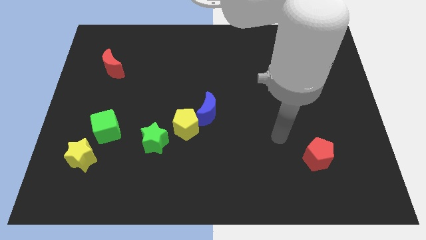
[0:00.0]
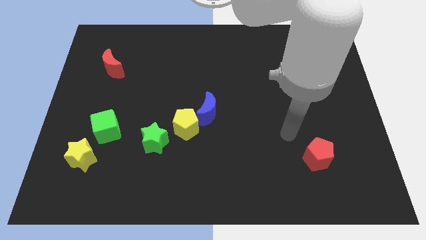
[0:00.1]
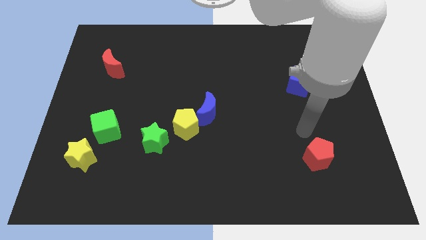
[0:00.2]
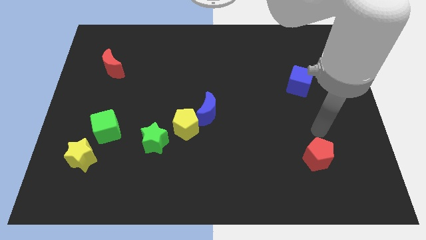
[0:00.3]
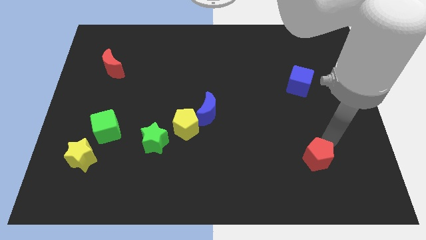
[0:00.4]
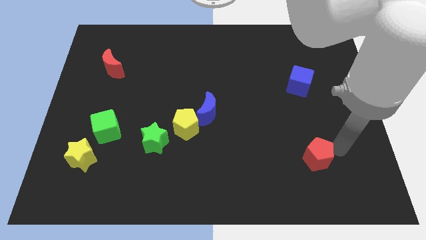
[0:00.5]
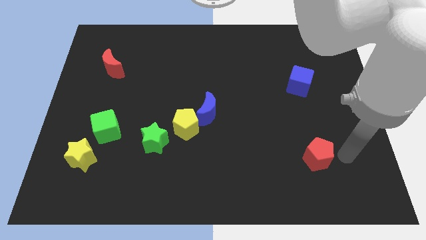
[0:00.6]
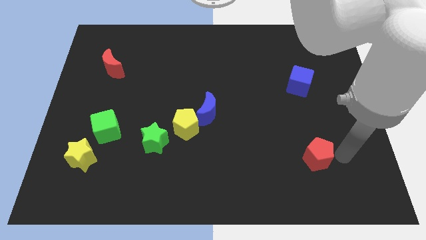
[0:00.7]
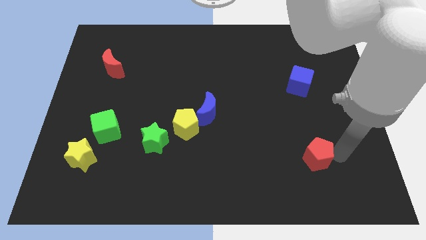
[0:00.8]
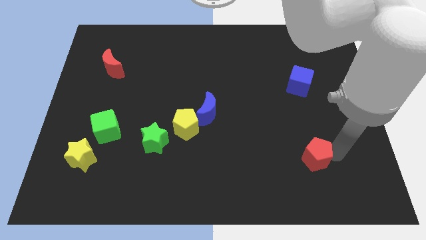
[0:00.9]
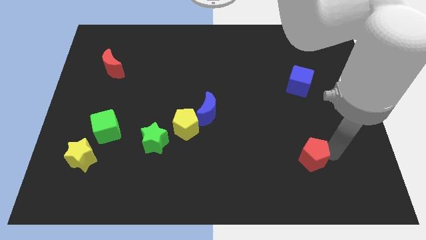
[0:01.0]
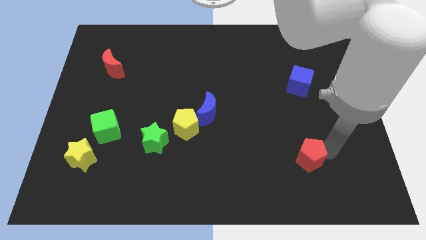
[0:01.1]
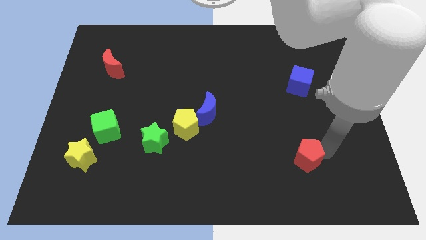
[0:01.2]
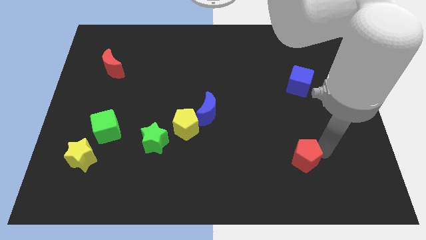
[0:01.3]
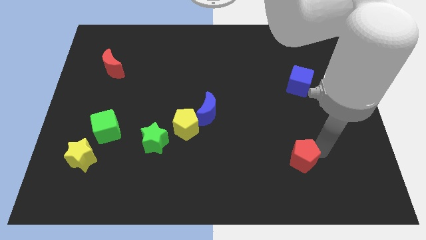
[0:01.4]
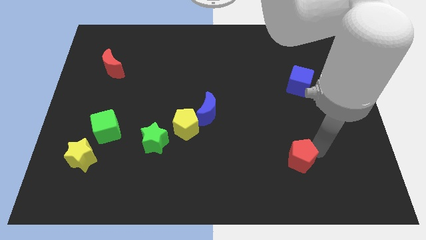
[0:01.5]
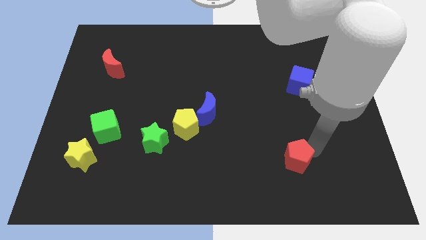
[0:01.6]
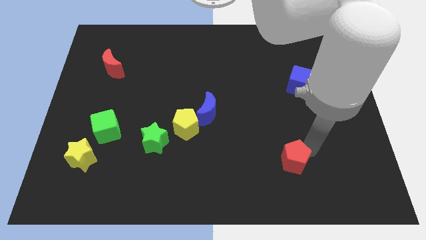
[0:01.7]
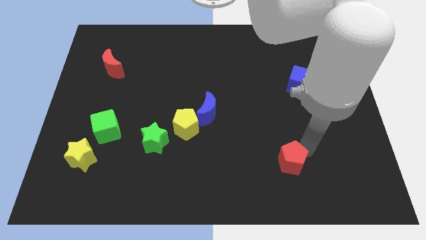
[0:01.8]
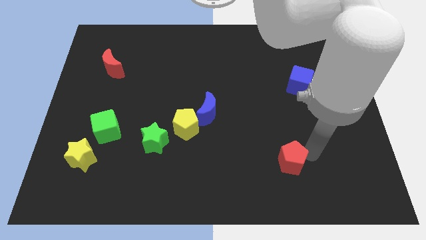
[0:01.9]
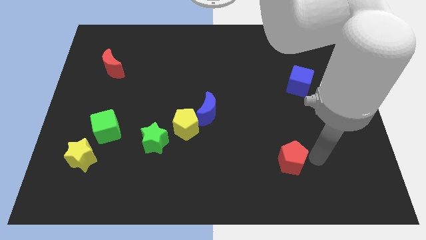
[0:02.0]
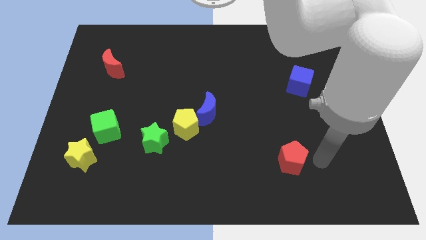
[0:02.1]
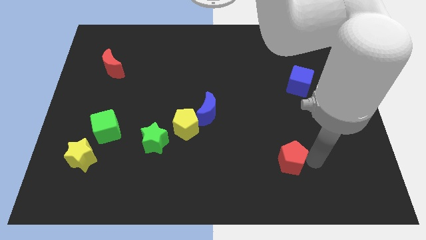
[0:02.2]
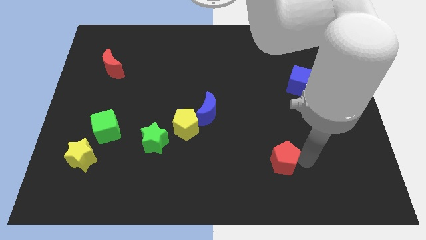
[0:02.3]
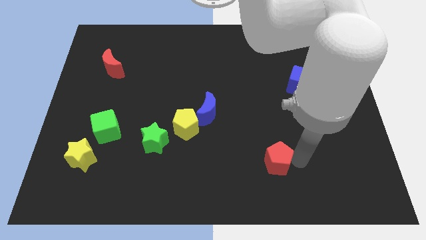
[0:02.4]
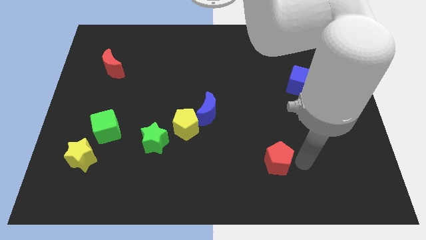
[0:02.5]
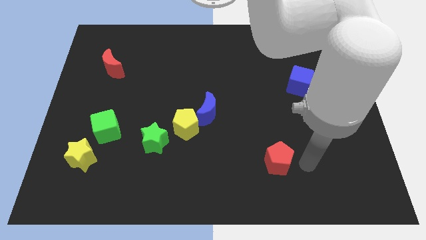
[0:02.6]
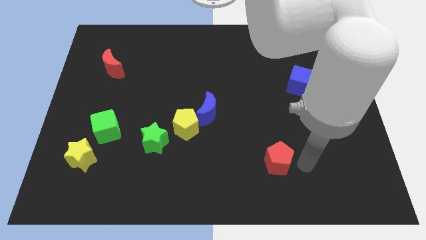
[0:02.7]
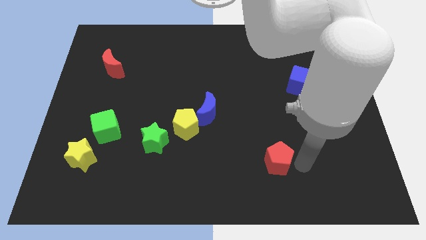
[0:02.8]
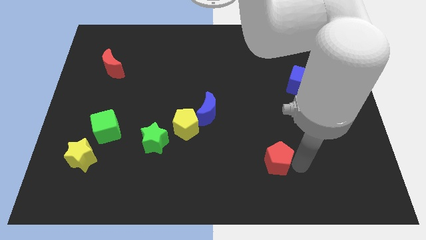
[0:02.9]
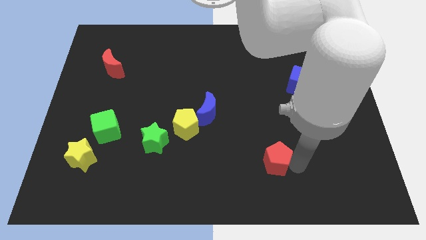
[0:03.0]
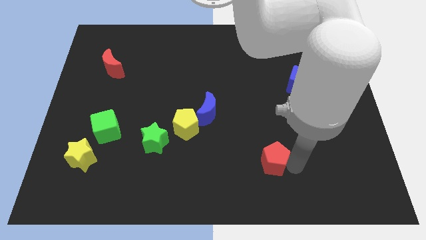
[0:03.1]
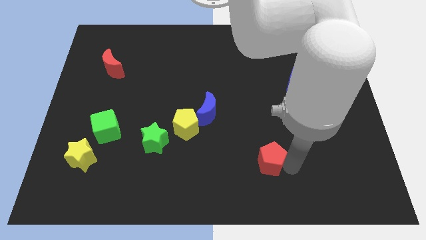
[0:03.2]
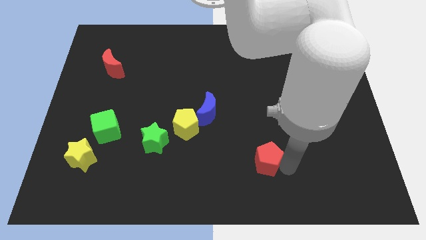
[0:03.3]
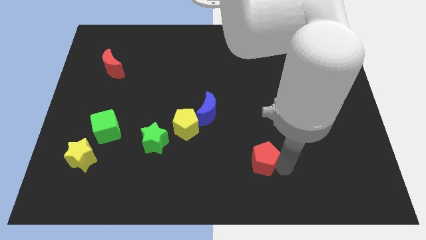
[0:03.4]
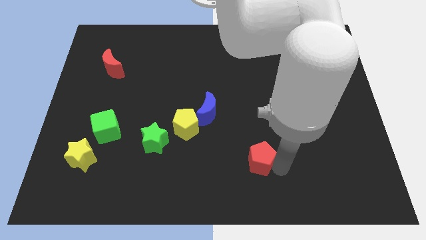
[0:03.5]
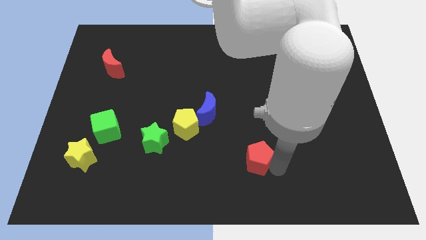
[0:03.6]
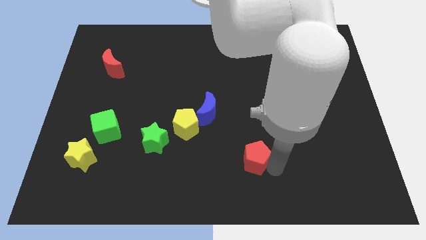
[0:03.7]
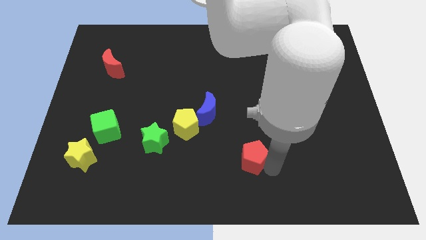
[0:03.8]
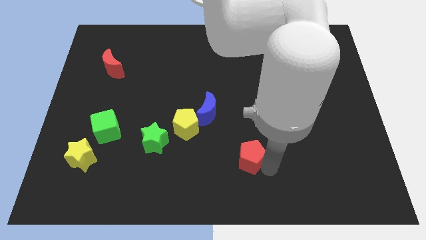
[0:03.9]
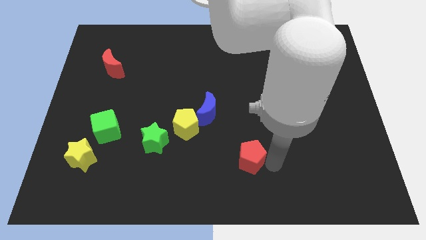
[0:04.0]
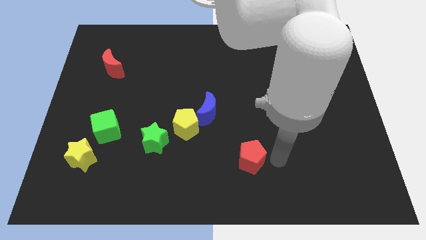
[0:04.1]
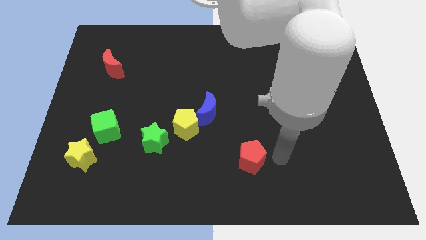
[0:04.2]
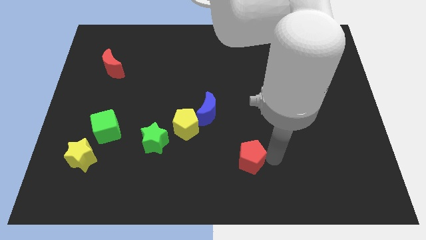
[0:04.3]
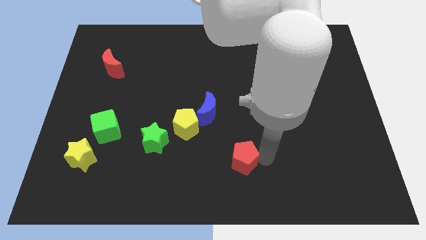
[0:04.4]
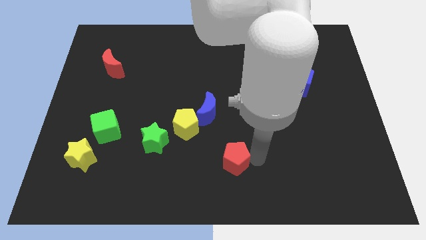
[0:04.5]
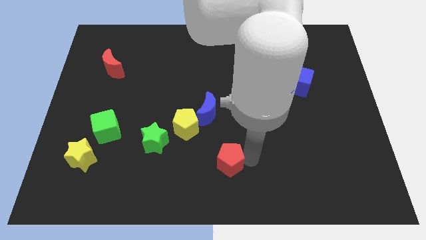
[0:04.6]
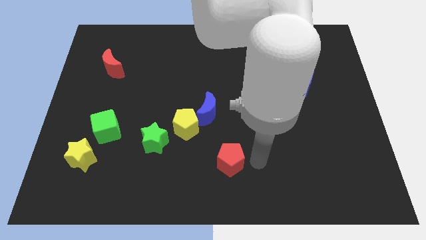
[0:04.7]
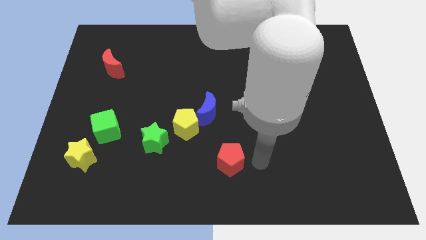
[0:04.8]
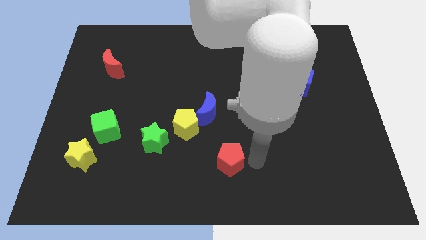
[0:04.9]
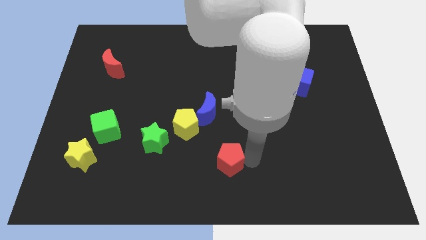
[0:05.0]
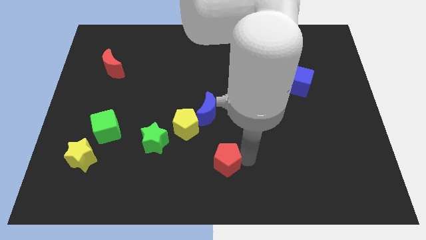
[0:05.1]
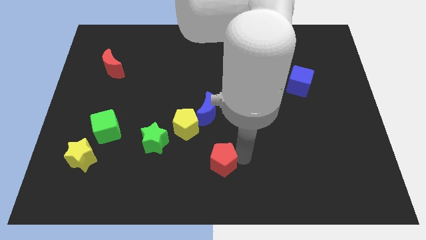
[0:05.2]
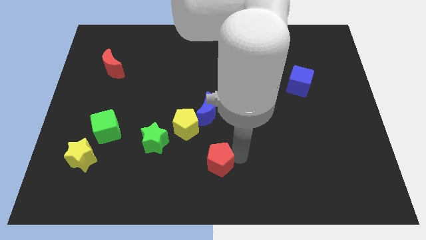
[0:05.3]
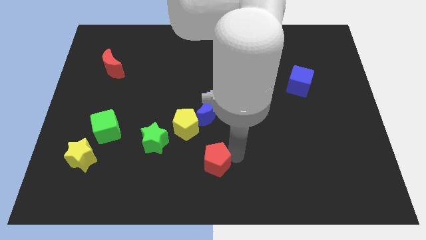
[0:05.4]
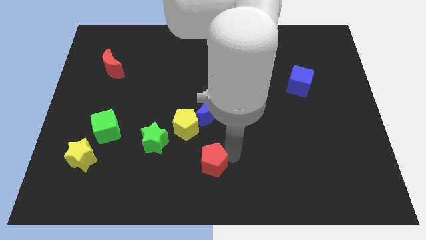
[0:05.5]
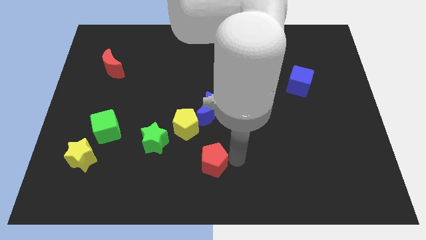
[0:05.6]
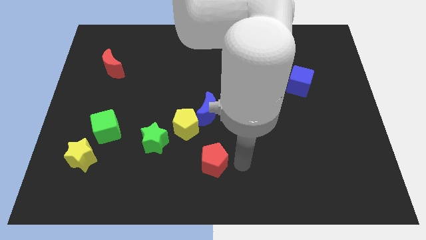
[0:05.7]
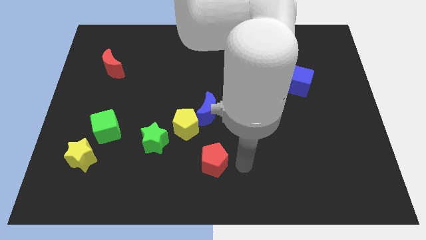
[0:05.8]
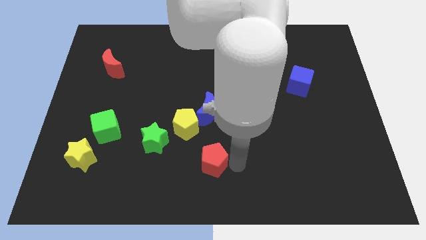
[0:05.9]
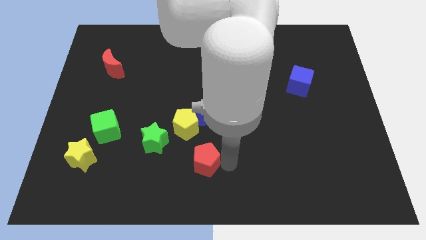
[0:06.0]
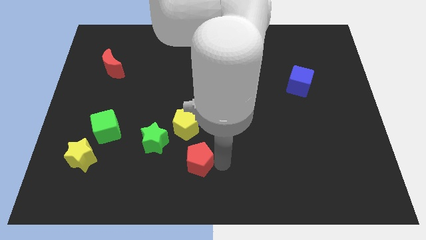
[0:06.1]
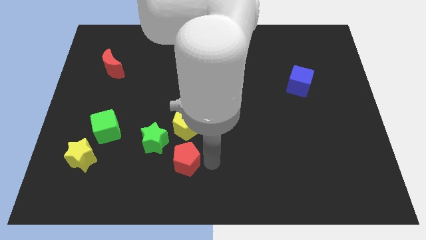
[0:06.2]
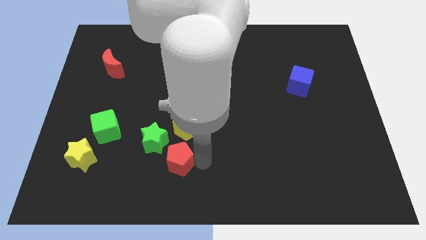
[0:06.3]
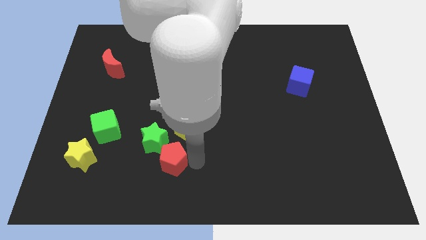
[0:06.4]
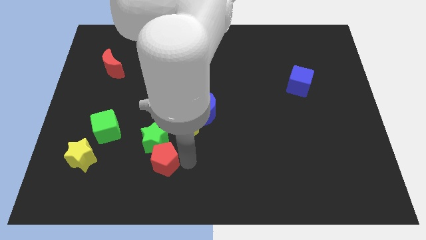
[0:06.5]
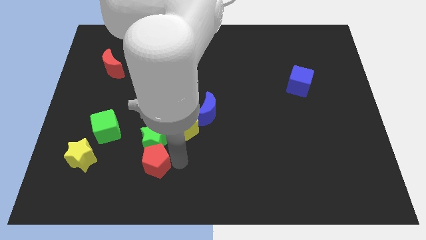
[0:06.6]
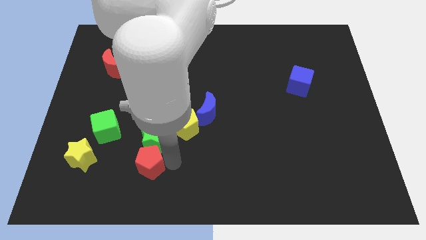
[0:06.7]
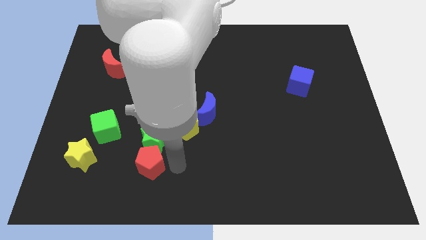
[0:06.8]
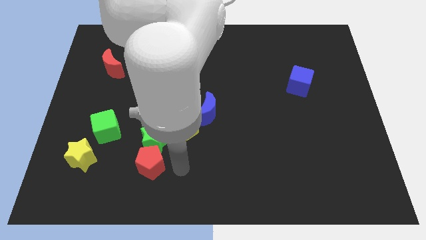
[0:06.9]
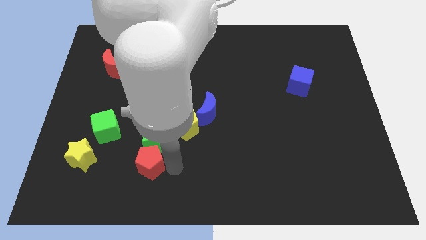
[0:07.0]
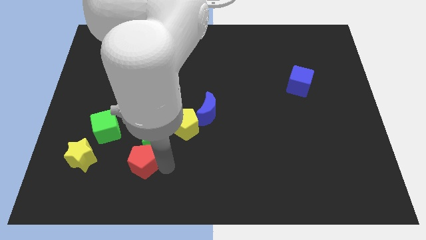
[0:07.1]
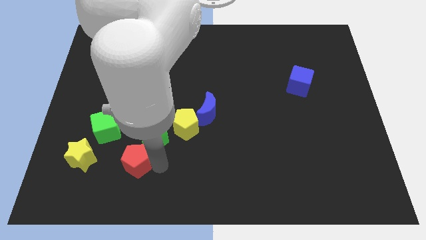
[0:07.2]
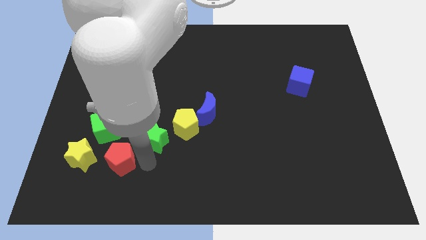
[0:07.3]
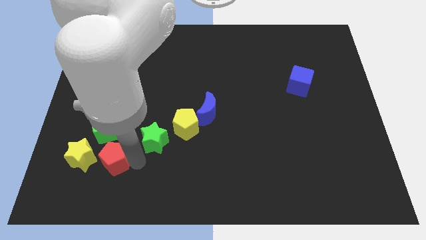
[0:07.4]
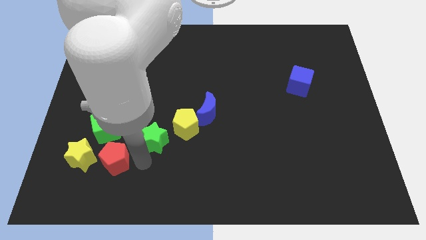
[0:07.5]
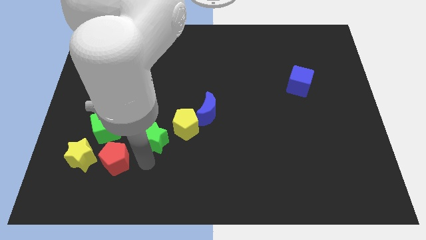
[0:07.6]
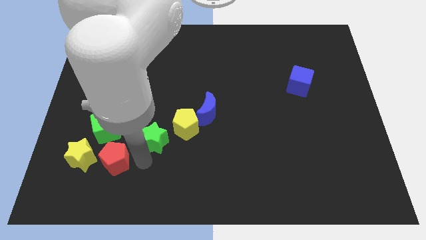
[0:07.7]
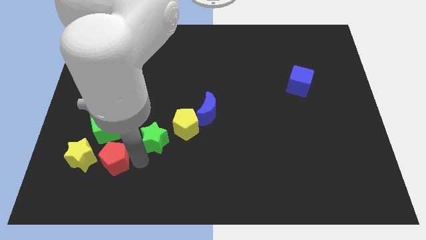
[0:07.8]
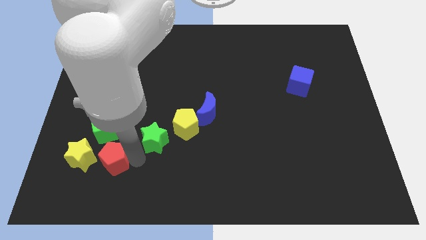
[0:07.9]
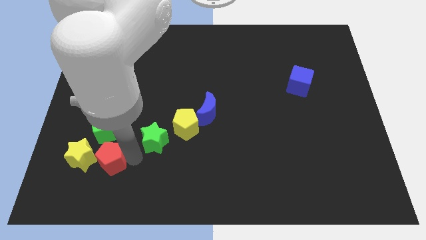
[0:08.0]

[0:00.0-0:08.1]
slide the red pentagon towards the yellow star
